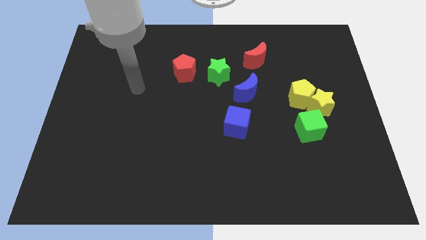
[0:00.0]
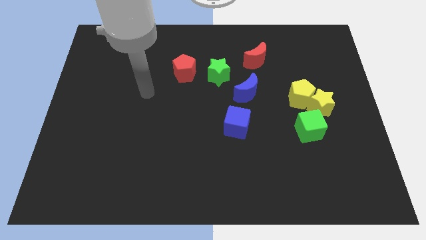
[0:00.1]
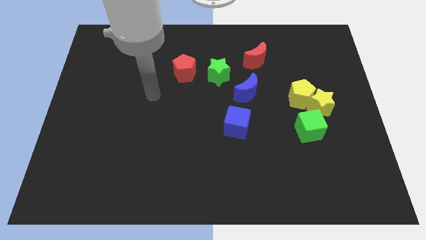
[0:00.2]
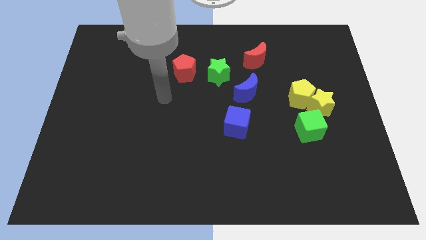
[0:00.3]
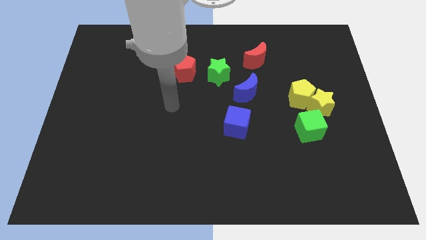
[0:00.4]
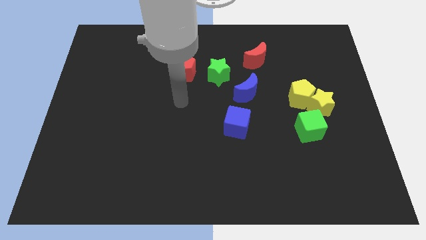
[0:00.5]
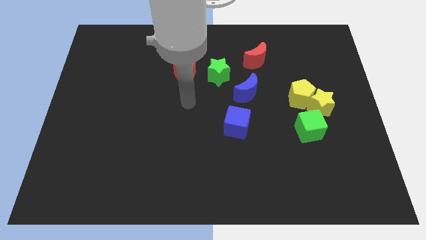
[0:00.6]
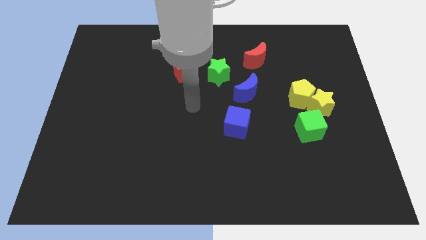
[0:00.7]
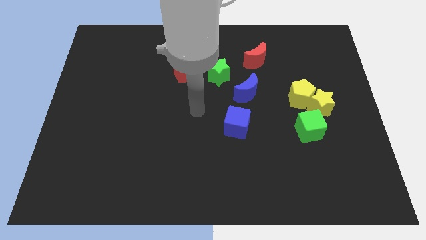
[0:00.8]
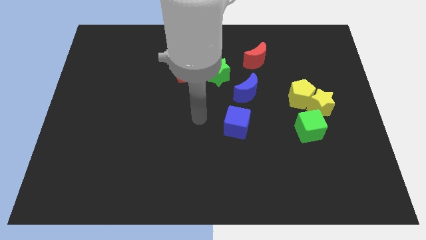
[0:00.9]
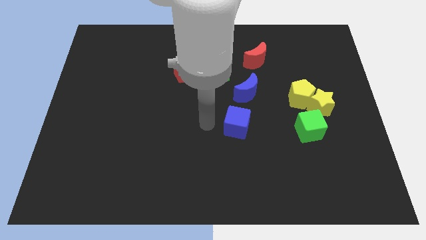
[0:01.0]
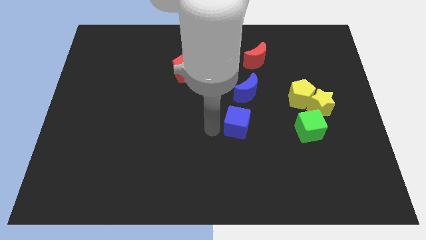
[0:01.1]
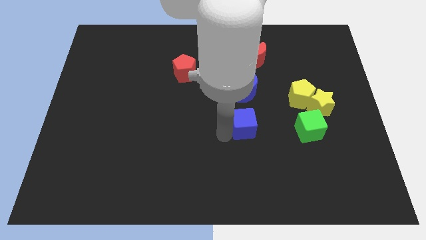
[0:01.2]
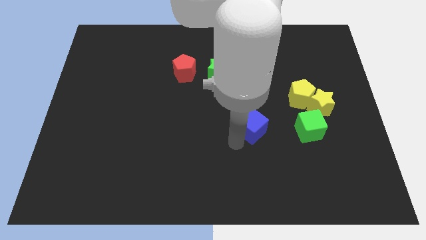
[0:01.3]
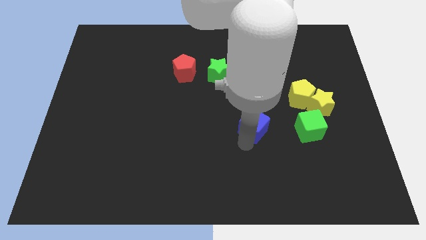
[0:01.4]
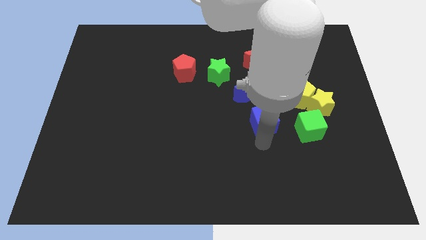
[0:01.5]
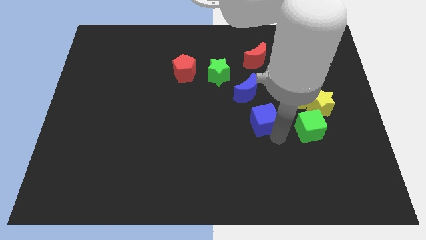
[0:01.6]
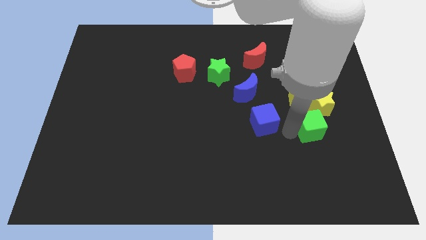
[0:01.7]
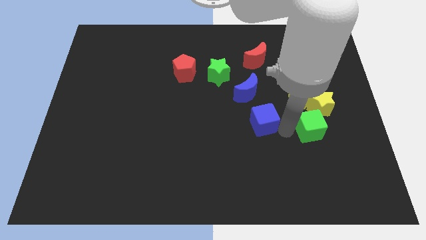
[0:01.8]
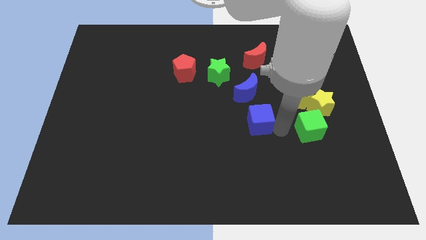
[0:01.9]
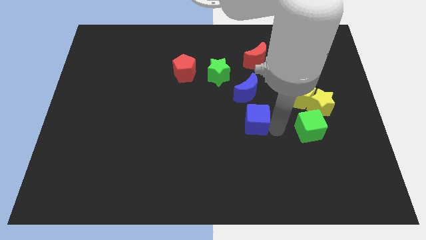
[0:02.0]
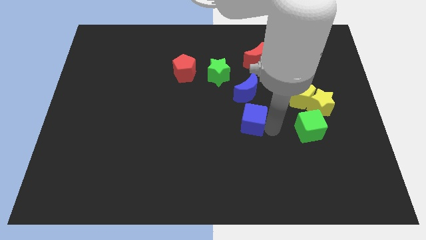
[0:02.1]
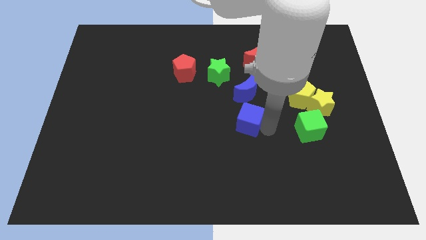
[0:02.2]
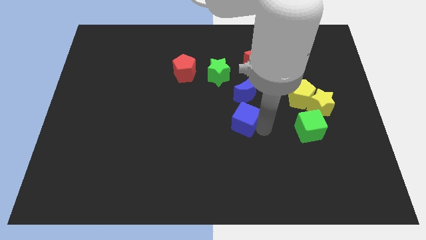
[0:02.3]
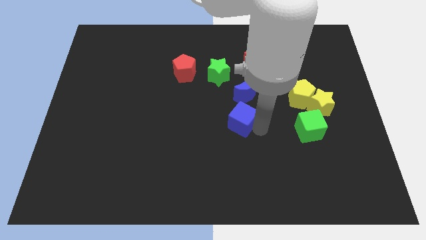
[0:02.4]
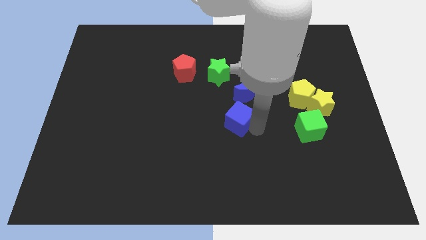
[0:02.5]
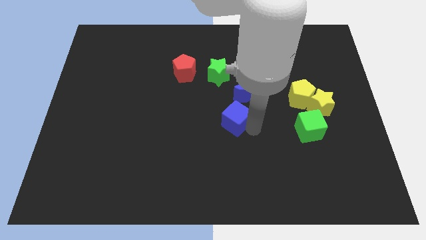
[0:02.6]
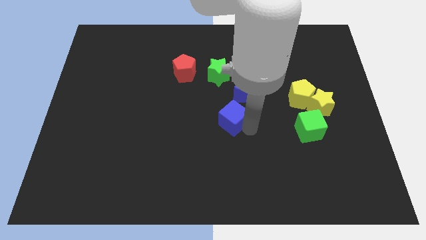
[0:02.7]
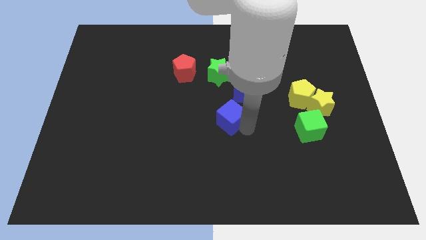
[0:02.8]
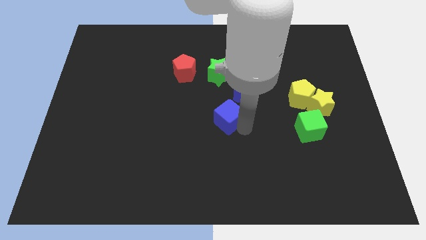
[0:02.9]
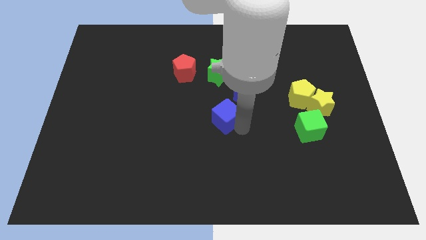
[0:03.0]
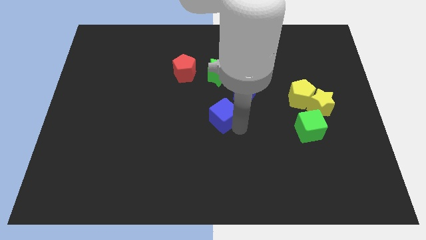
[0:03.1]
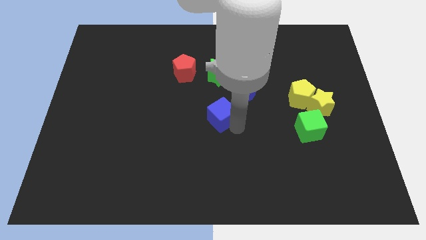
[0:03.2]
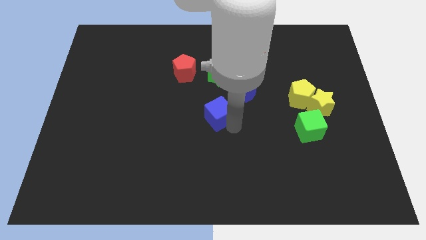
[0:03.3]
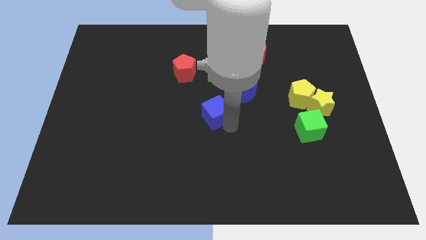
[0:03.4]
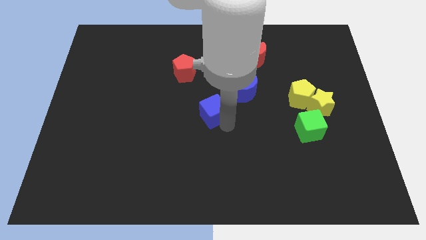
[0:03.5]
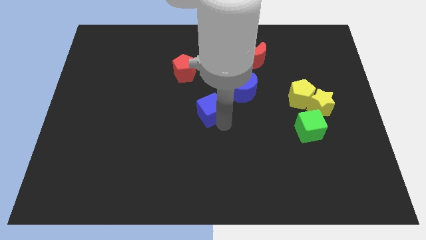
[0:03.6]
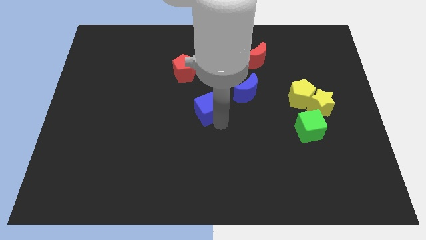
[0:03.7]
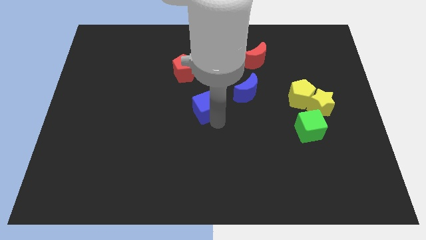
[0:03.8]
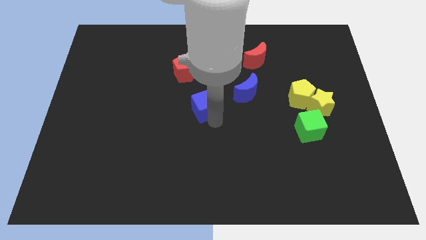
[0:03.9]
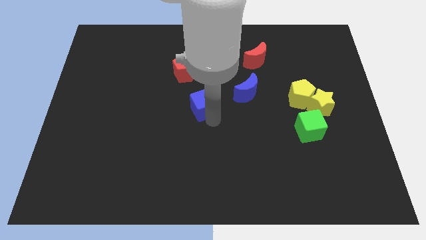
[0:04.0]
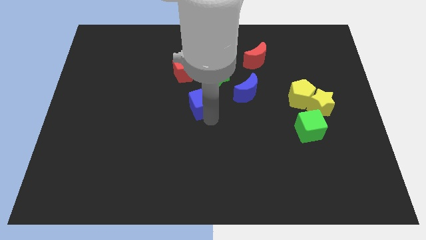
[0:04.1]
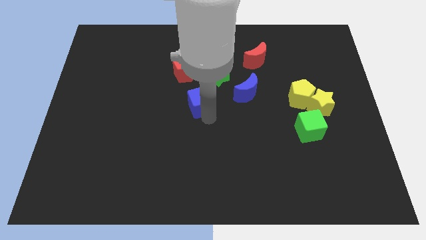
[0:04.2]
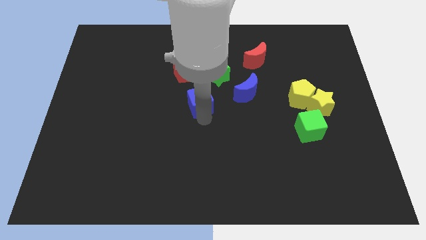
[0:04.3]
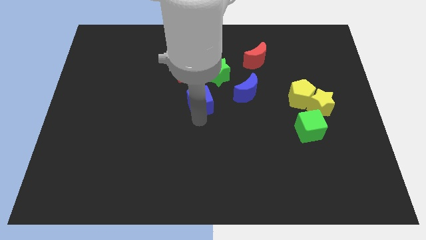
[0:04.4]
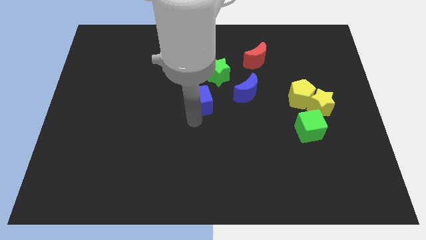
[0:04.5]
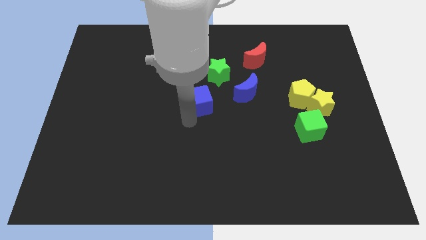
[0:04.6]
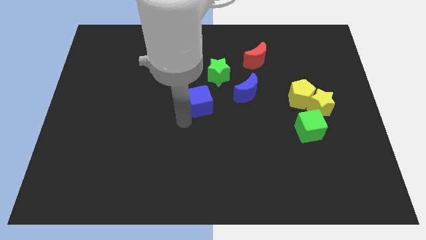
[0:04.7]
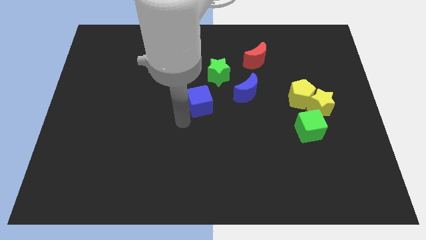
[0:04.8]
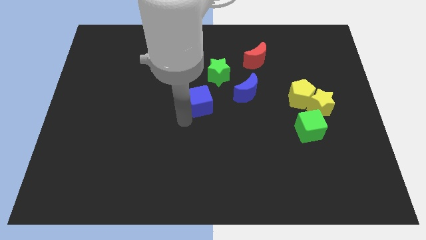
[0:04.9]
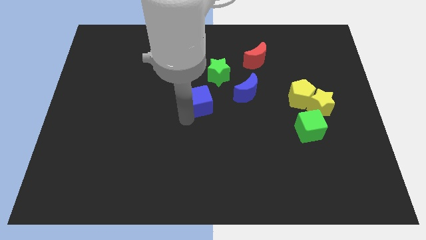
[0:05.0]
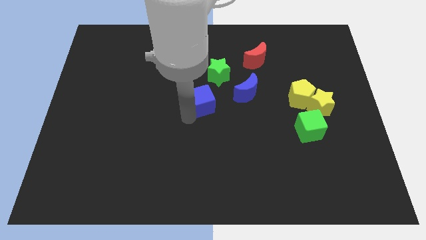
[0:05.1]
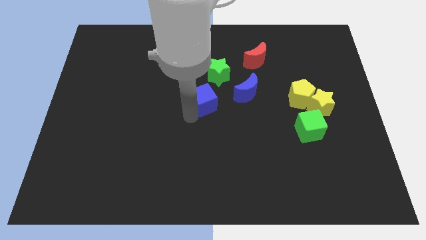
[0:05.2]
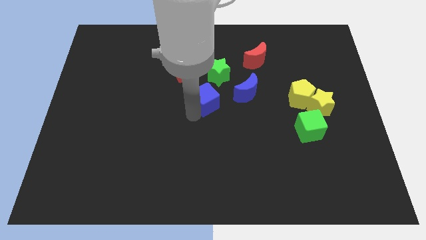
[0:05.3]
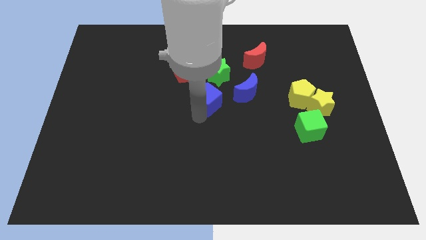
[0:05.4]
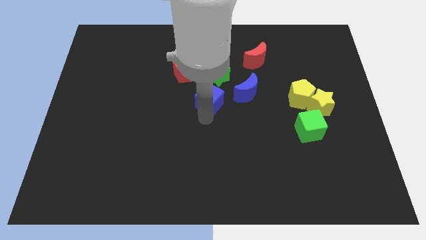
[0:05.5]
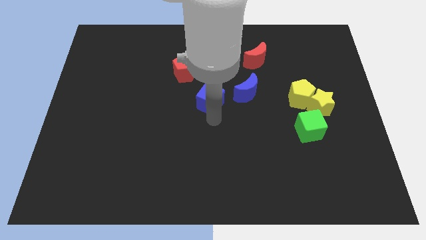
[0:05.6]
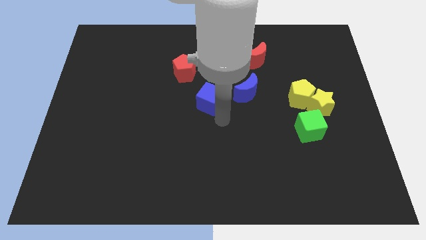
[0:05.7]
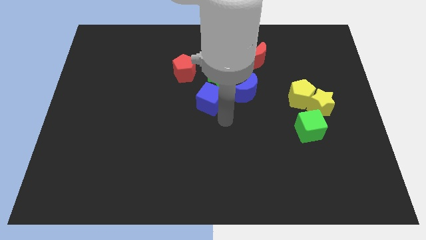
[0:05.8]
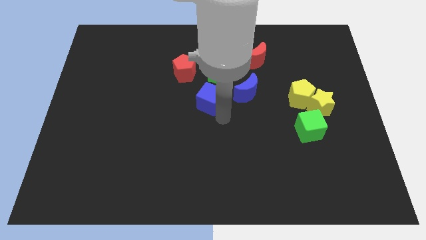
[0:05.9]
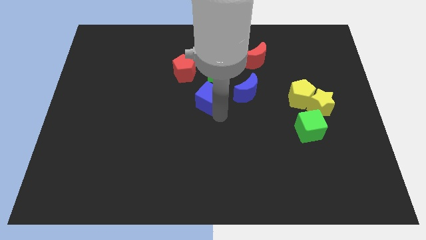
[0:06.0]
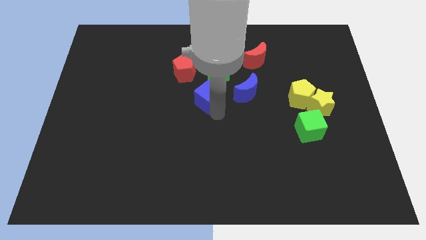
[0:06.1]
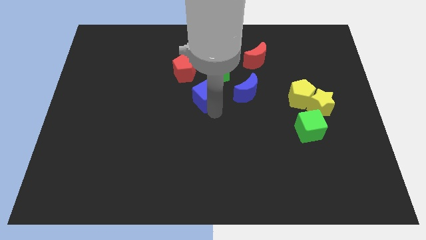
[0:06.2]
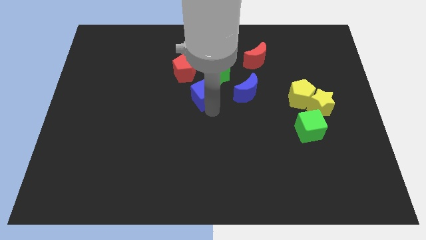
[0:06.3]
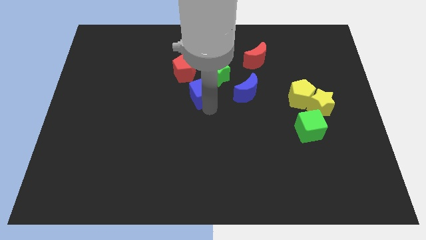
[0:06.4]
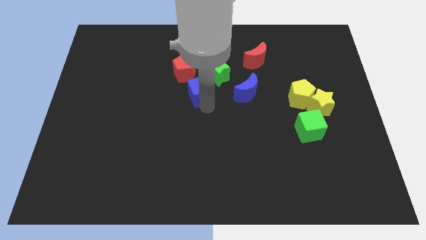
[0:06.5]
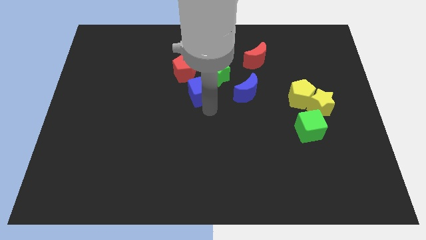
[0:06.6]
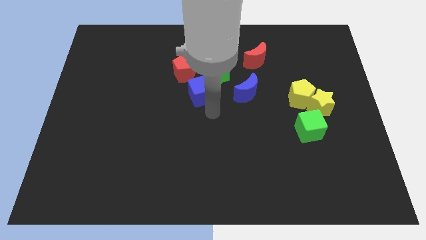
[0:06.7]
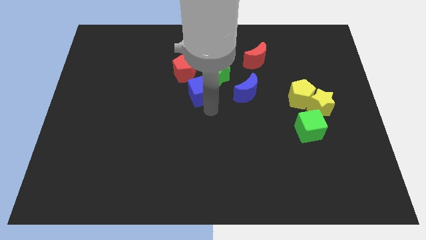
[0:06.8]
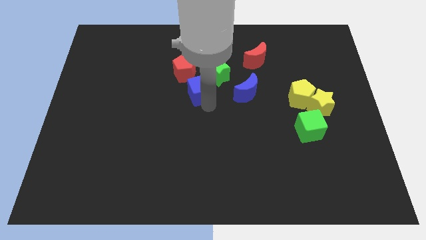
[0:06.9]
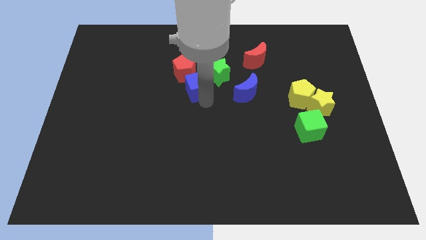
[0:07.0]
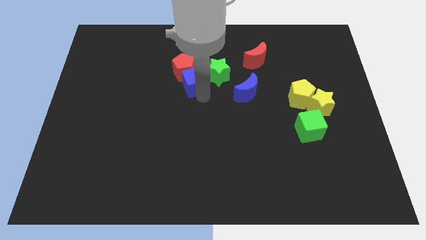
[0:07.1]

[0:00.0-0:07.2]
move the blue cube next to the red pentagon
